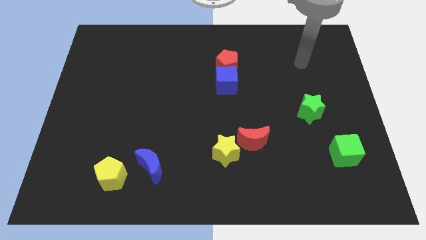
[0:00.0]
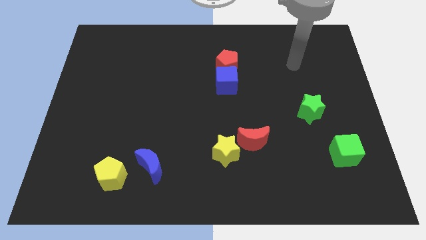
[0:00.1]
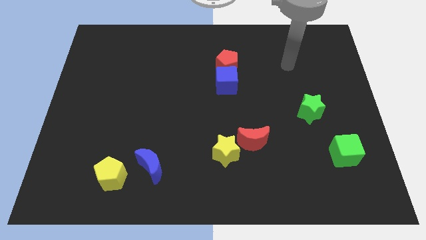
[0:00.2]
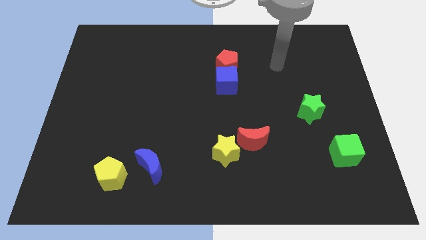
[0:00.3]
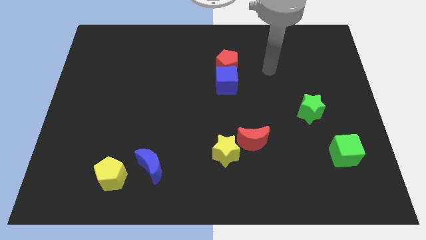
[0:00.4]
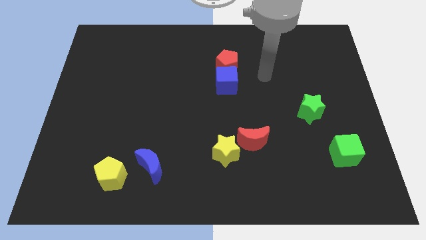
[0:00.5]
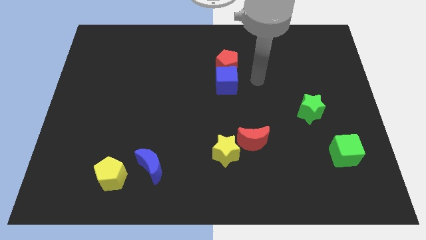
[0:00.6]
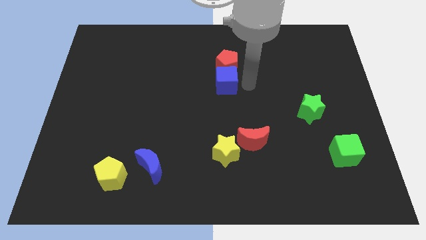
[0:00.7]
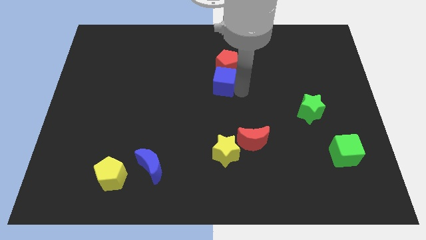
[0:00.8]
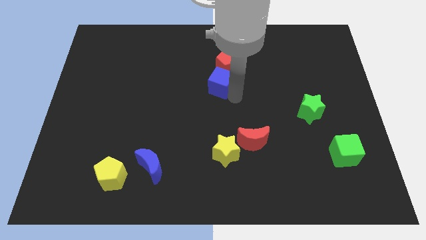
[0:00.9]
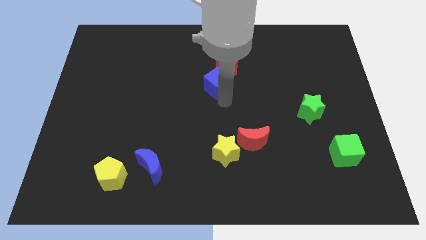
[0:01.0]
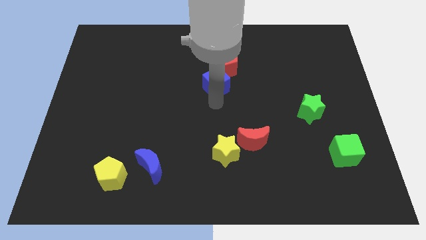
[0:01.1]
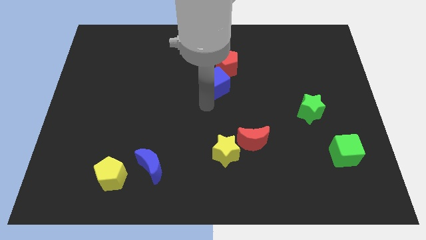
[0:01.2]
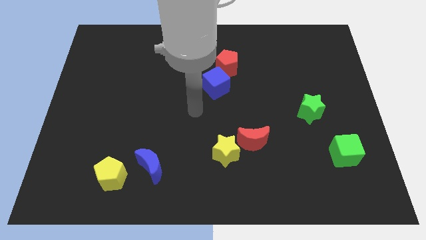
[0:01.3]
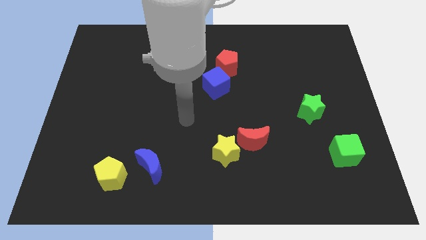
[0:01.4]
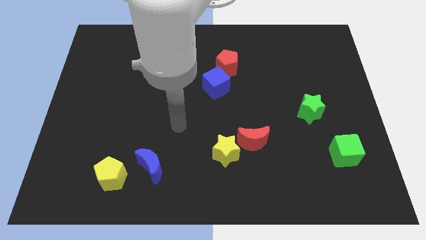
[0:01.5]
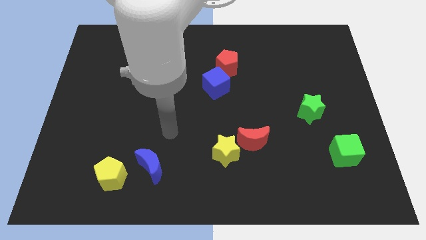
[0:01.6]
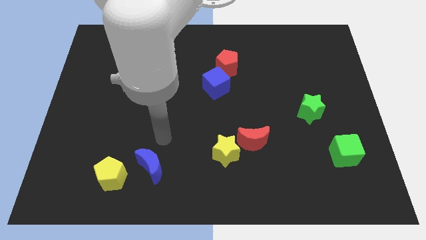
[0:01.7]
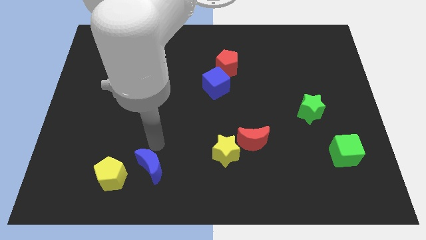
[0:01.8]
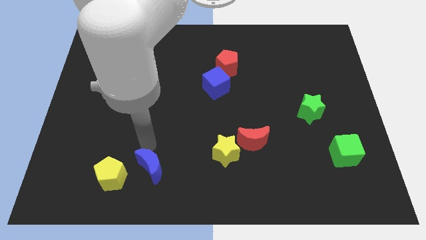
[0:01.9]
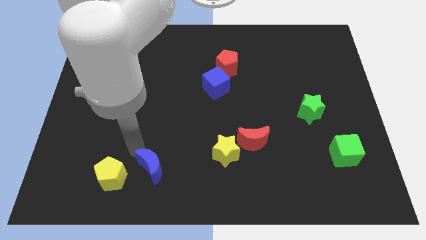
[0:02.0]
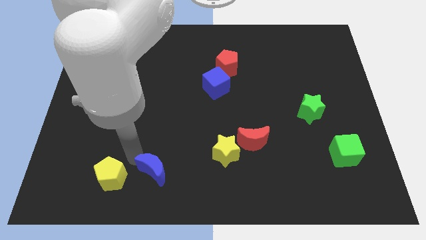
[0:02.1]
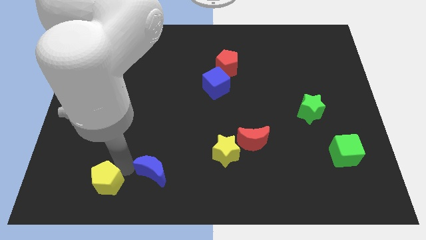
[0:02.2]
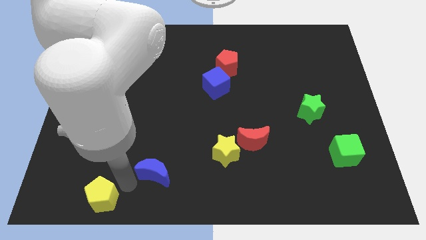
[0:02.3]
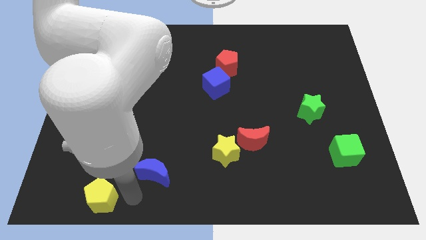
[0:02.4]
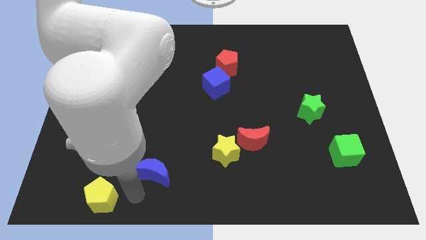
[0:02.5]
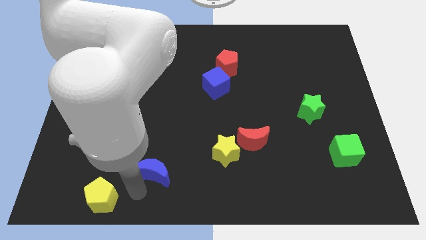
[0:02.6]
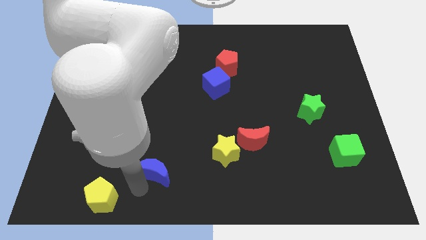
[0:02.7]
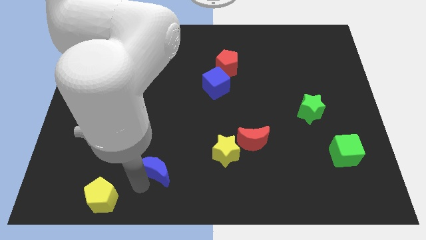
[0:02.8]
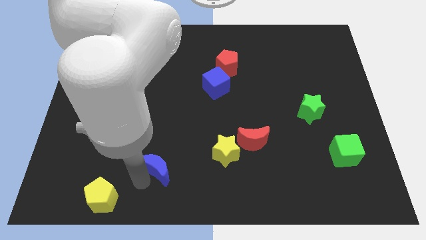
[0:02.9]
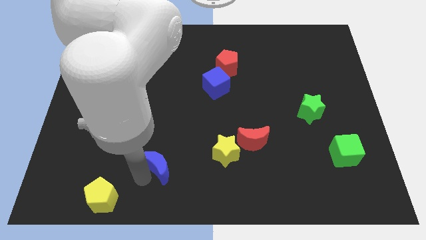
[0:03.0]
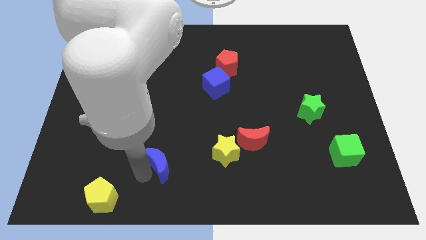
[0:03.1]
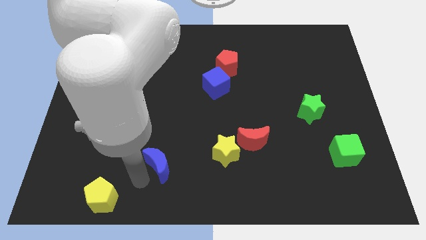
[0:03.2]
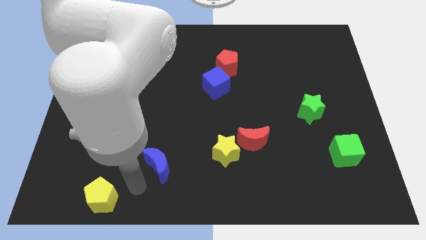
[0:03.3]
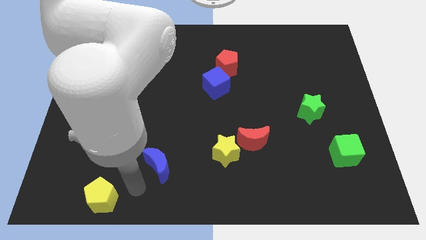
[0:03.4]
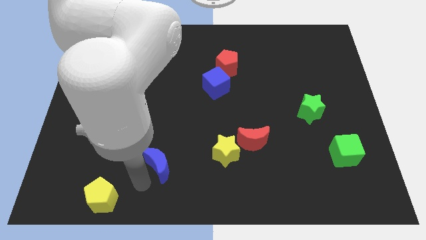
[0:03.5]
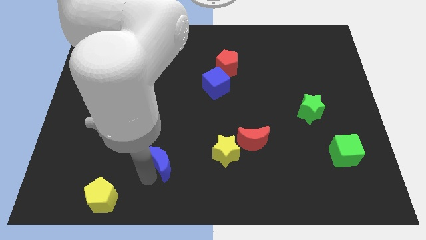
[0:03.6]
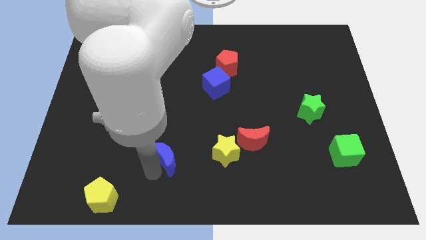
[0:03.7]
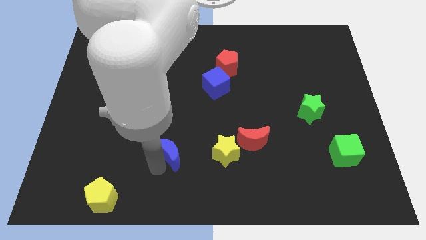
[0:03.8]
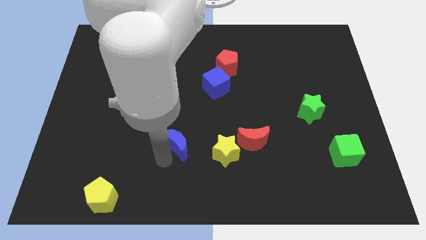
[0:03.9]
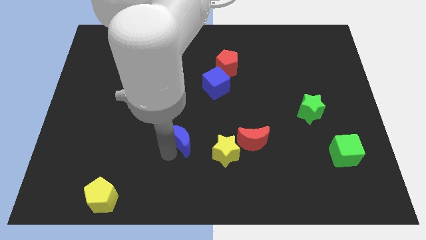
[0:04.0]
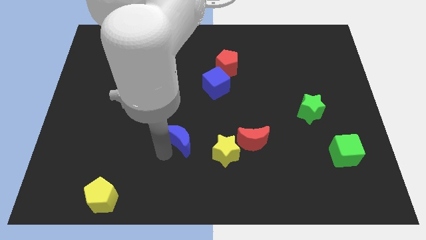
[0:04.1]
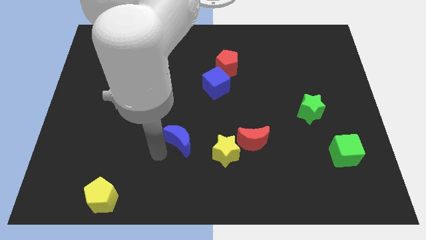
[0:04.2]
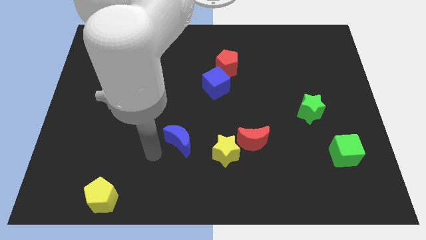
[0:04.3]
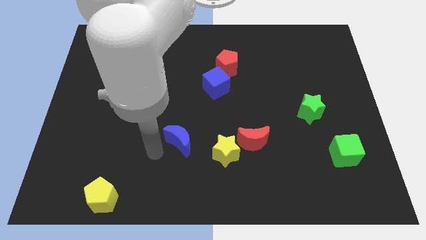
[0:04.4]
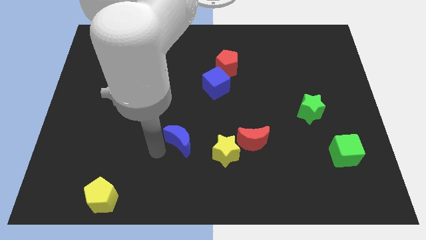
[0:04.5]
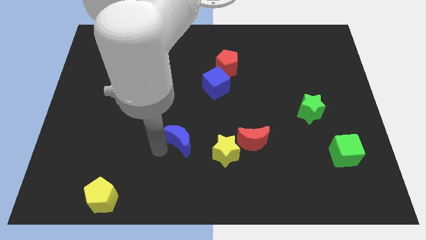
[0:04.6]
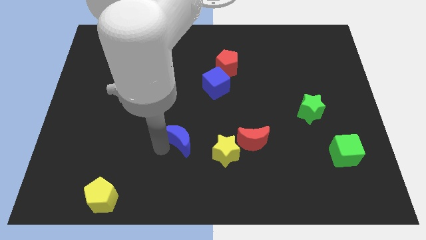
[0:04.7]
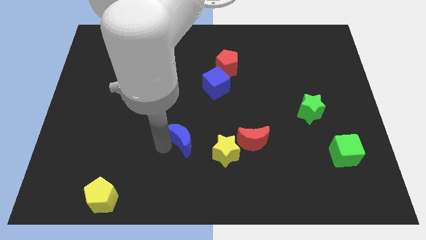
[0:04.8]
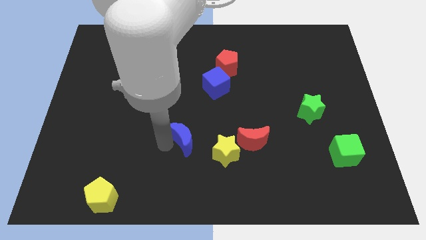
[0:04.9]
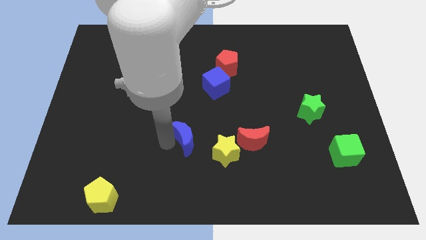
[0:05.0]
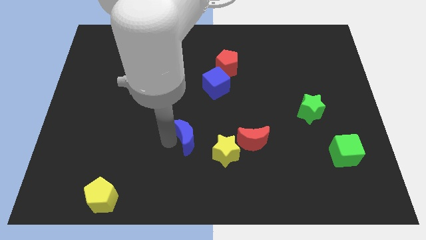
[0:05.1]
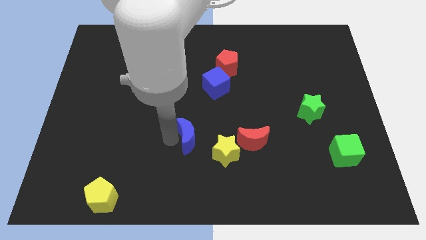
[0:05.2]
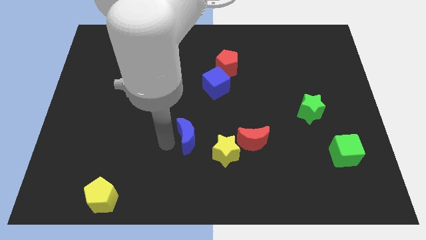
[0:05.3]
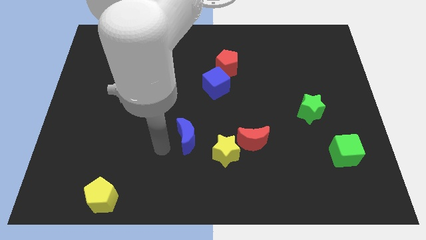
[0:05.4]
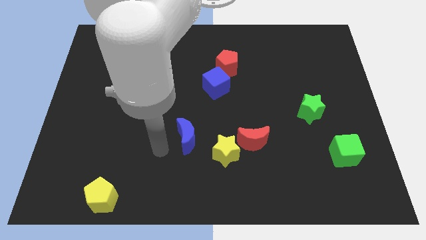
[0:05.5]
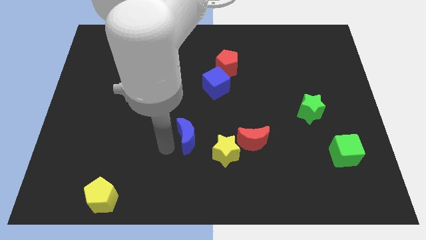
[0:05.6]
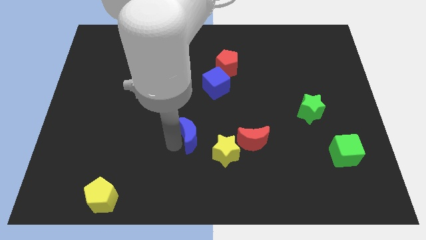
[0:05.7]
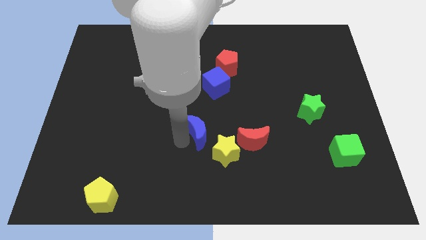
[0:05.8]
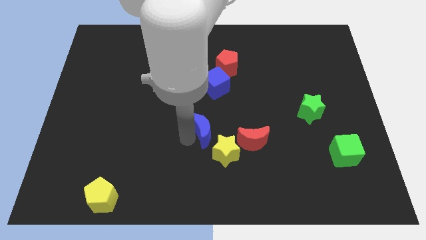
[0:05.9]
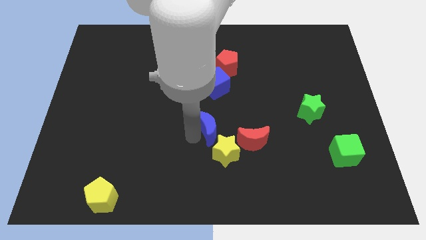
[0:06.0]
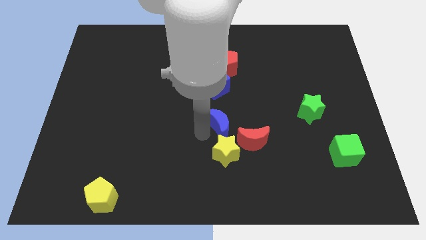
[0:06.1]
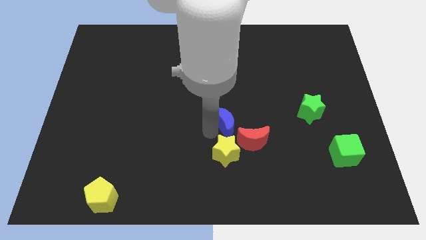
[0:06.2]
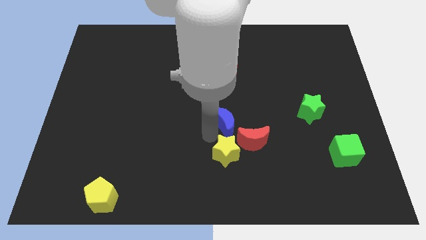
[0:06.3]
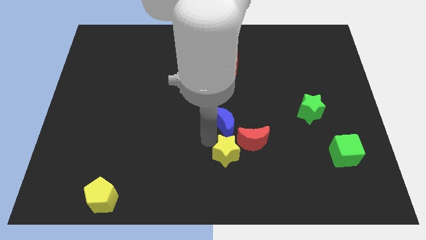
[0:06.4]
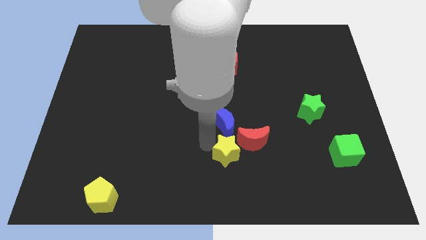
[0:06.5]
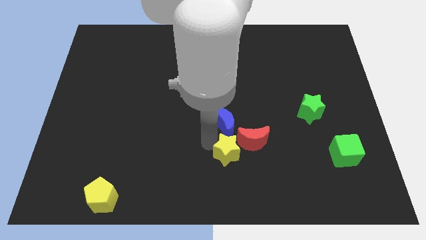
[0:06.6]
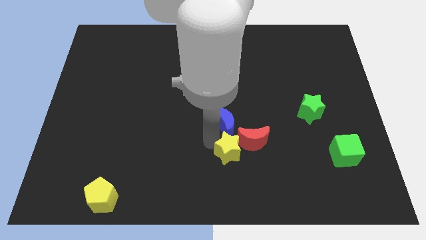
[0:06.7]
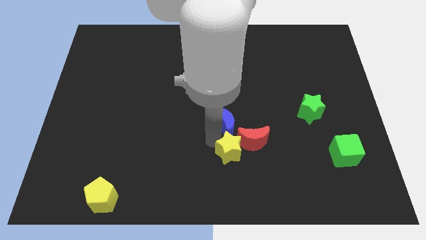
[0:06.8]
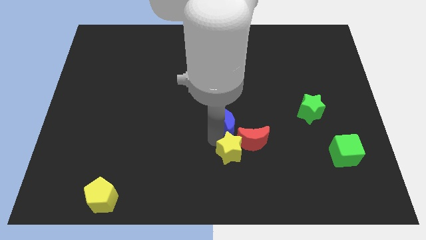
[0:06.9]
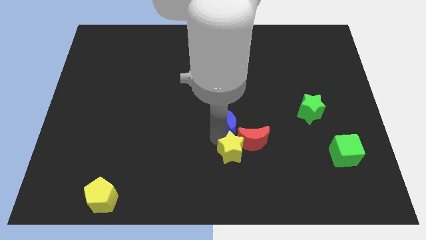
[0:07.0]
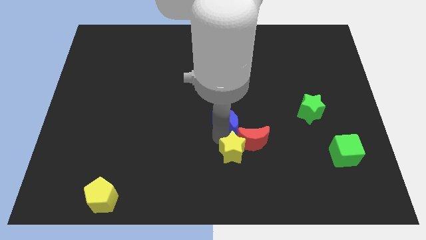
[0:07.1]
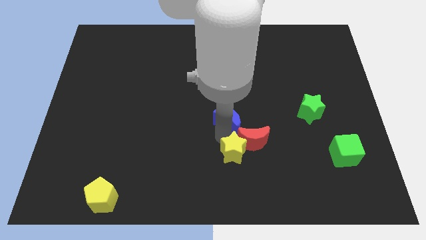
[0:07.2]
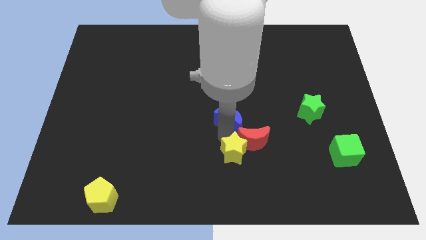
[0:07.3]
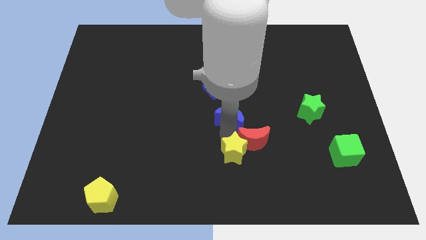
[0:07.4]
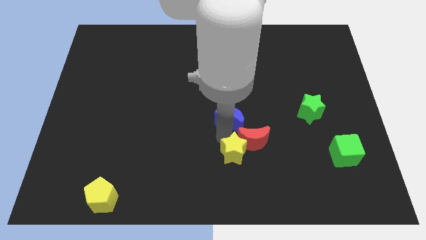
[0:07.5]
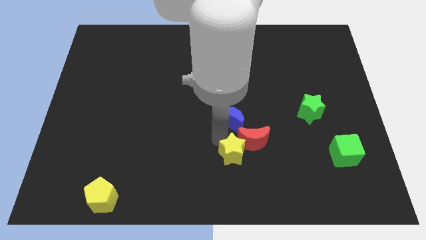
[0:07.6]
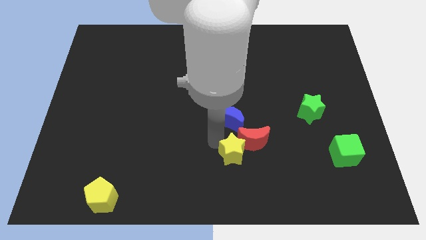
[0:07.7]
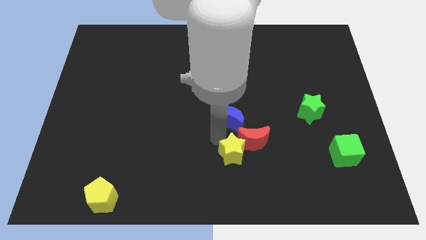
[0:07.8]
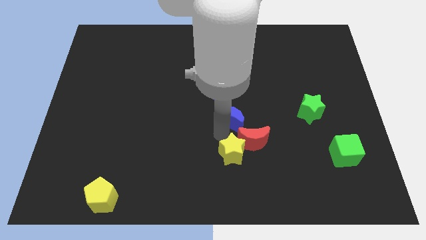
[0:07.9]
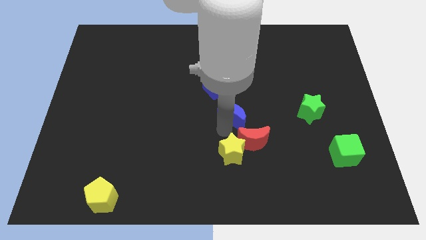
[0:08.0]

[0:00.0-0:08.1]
put the blue moon to the bottom right of the blue cube
